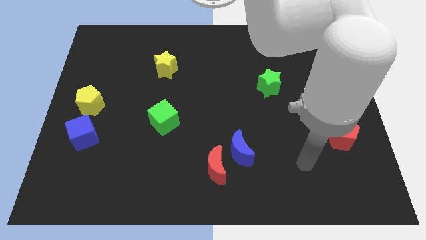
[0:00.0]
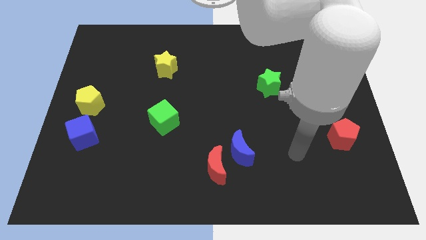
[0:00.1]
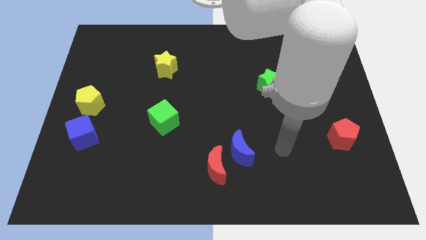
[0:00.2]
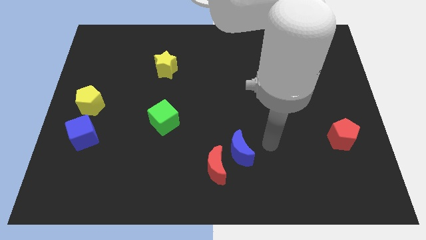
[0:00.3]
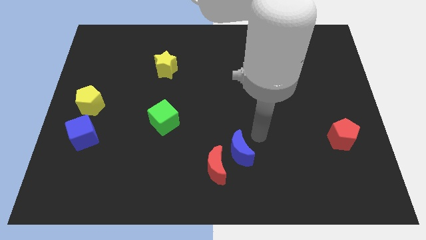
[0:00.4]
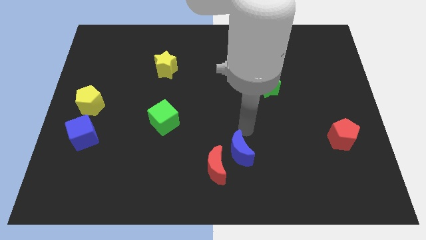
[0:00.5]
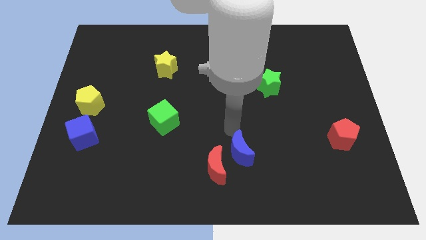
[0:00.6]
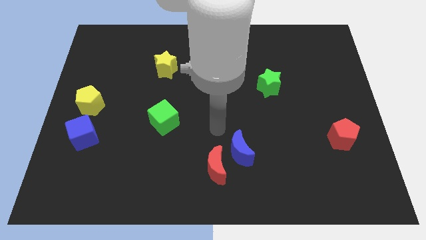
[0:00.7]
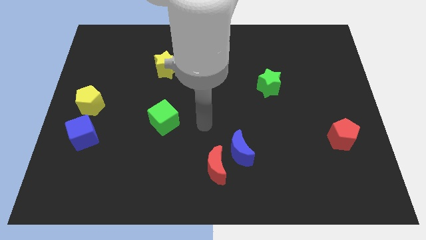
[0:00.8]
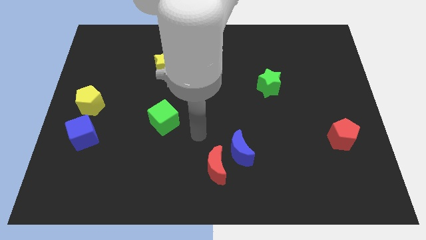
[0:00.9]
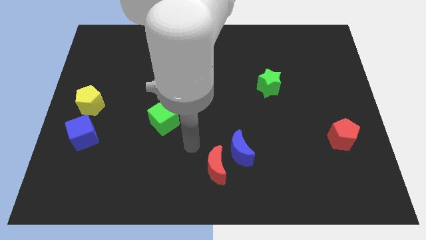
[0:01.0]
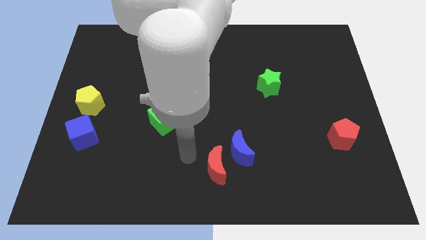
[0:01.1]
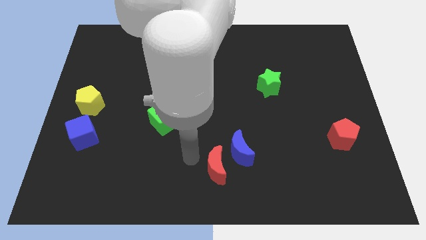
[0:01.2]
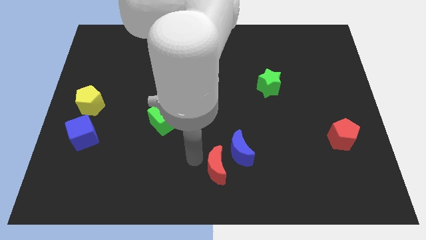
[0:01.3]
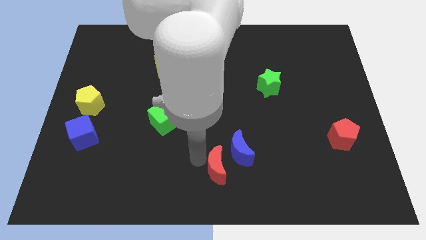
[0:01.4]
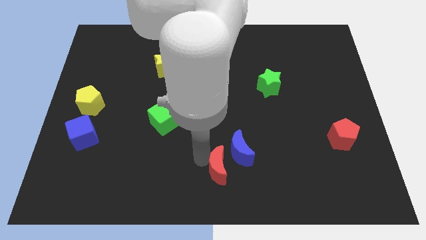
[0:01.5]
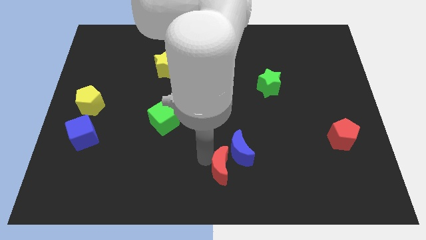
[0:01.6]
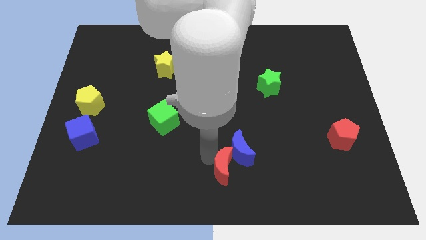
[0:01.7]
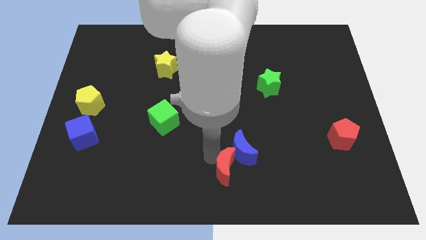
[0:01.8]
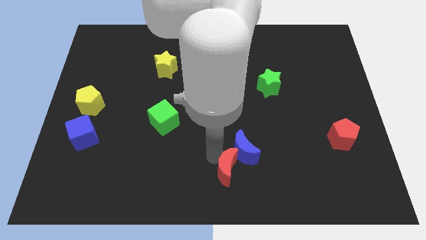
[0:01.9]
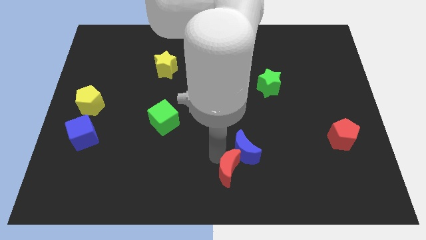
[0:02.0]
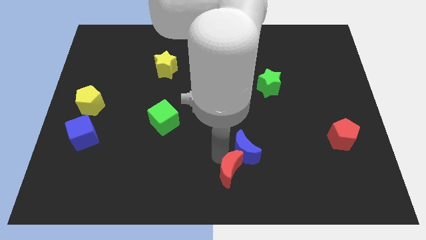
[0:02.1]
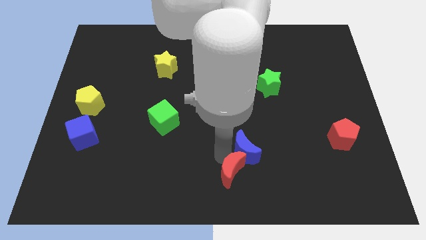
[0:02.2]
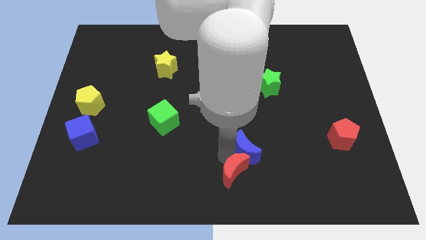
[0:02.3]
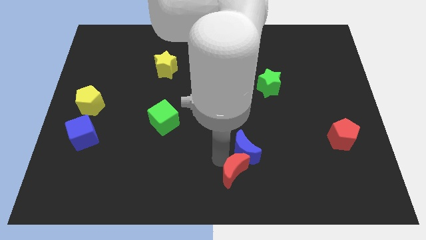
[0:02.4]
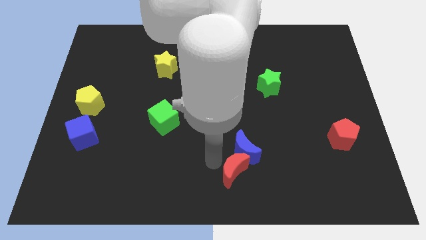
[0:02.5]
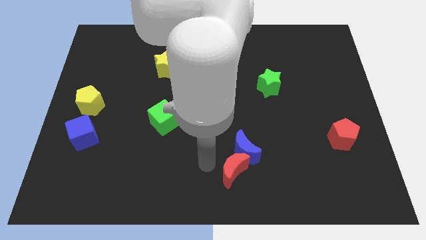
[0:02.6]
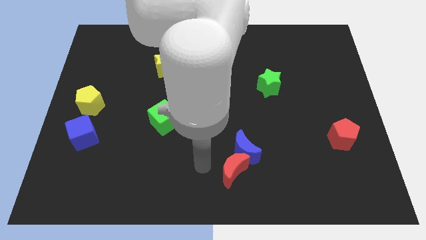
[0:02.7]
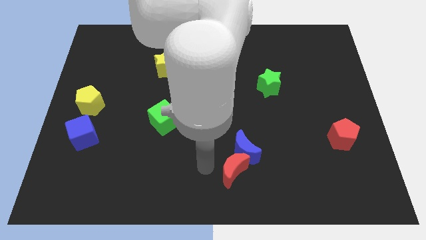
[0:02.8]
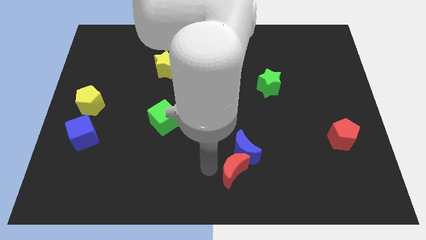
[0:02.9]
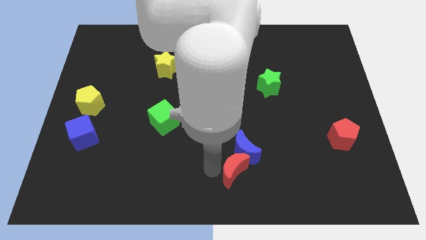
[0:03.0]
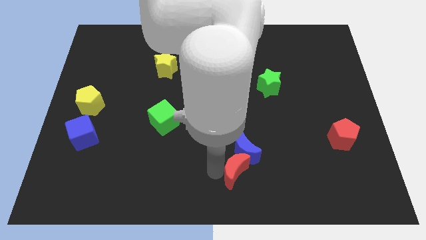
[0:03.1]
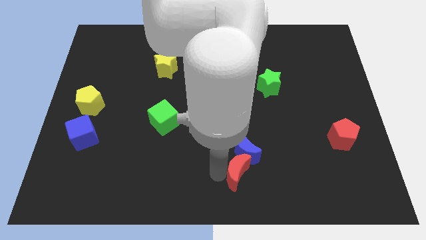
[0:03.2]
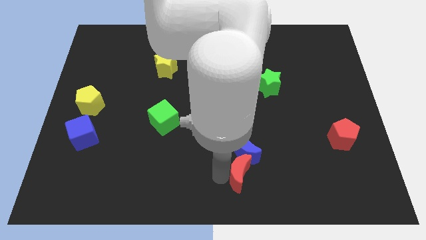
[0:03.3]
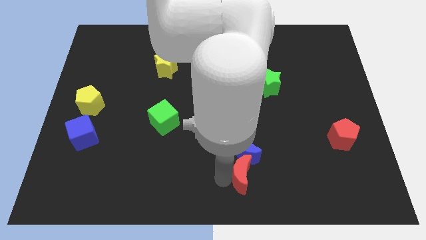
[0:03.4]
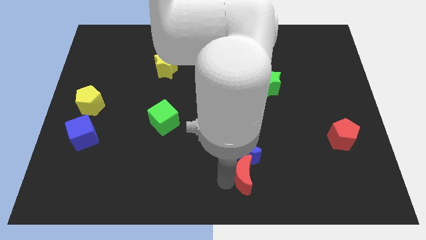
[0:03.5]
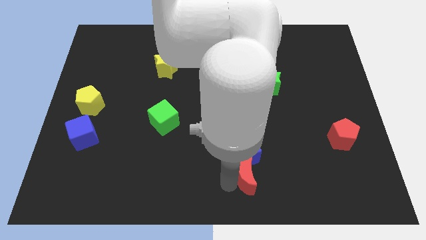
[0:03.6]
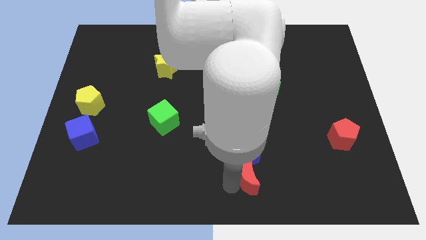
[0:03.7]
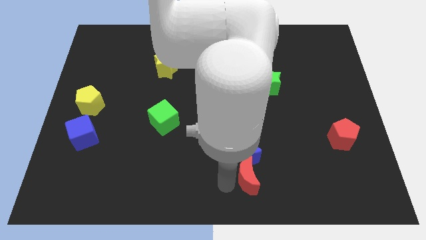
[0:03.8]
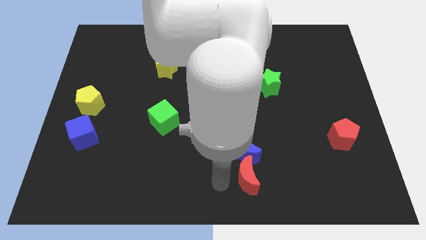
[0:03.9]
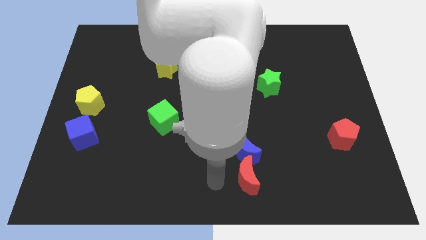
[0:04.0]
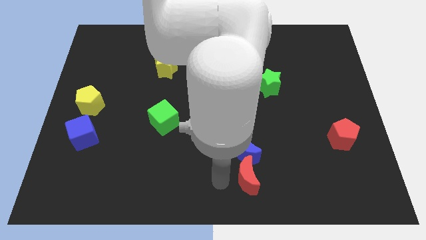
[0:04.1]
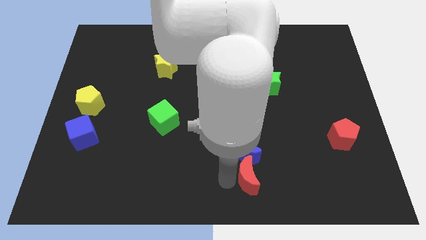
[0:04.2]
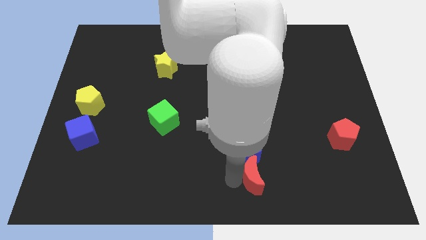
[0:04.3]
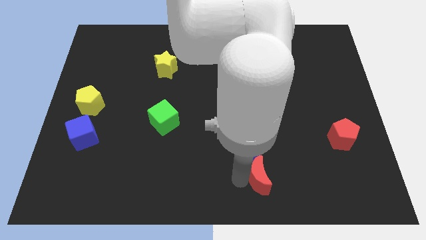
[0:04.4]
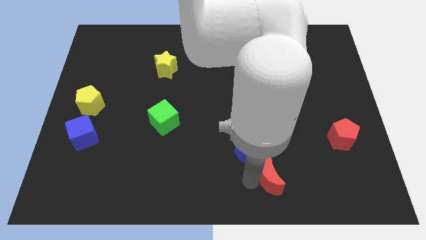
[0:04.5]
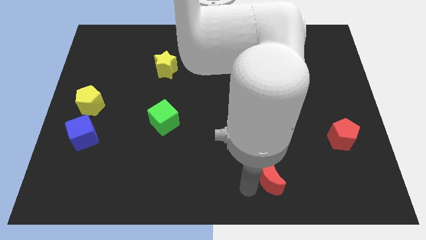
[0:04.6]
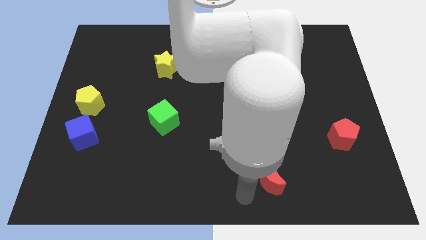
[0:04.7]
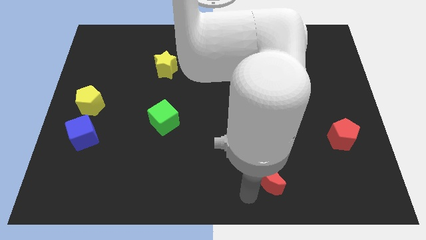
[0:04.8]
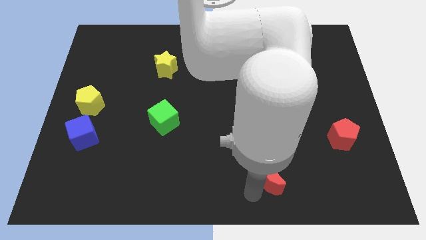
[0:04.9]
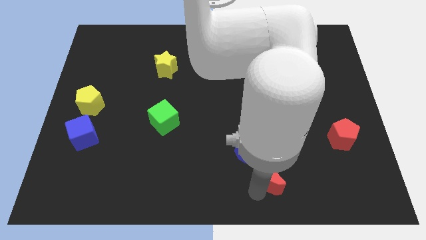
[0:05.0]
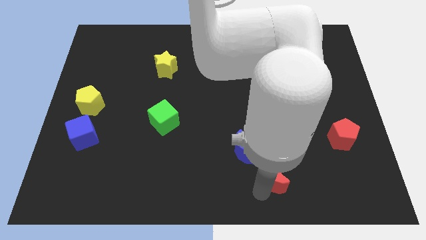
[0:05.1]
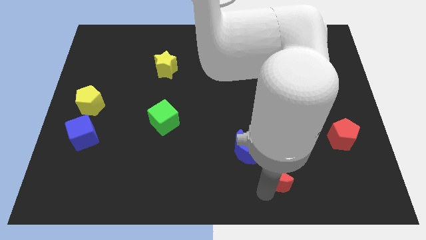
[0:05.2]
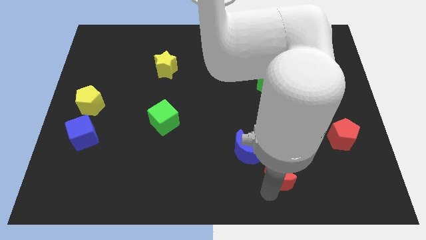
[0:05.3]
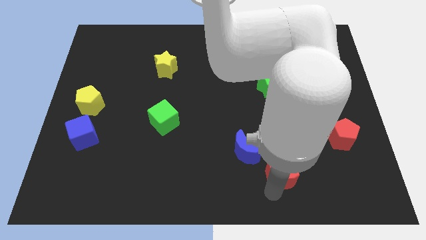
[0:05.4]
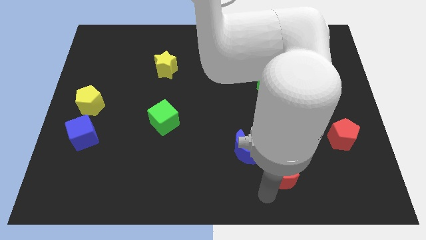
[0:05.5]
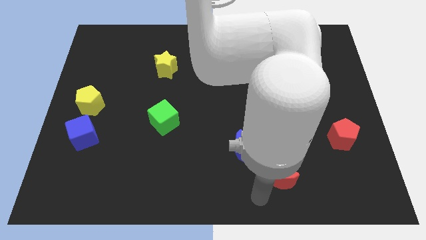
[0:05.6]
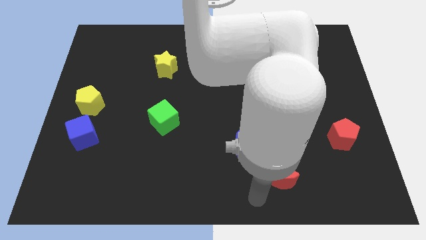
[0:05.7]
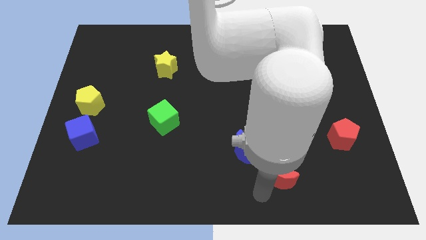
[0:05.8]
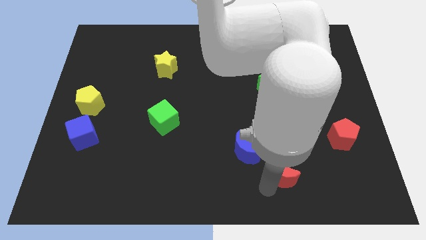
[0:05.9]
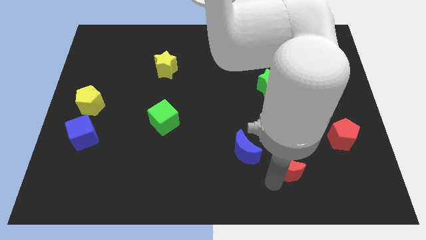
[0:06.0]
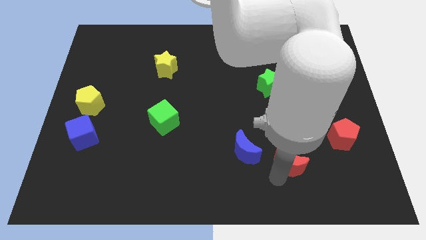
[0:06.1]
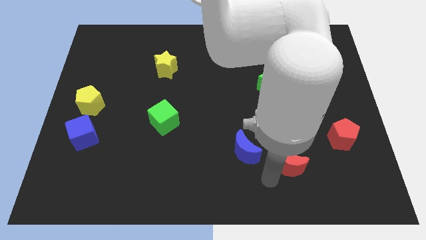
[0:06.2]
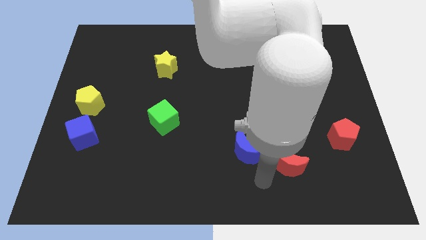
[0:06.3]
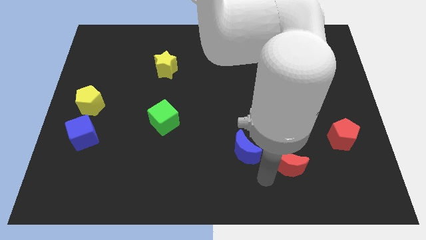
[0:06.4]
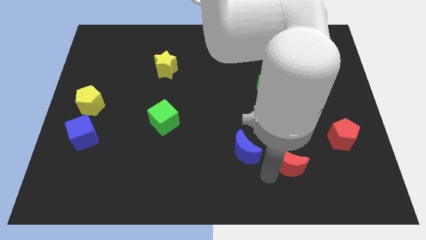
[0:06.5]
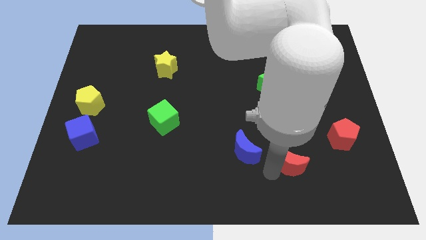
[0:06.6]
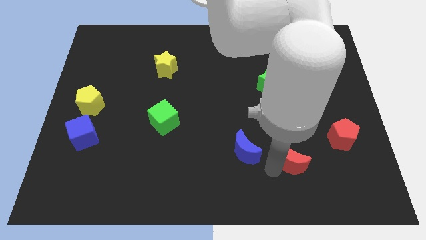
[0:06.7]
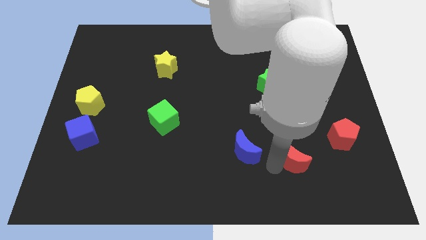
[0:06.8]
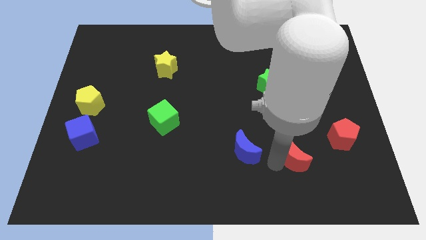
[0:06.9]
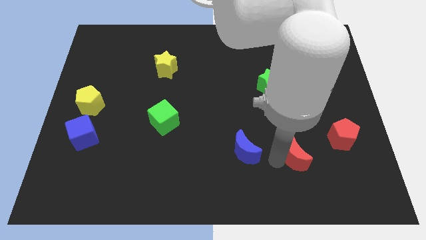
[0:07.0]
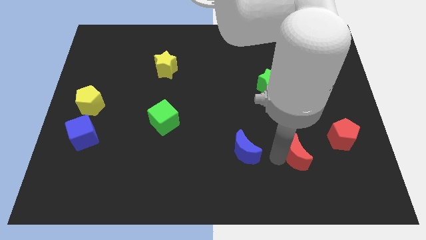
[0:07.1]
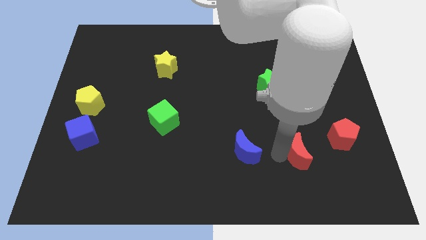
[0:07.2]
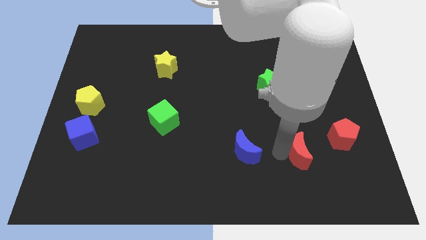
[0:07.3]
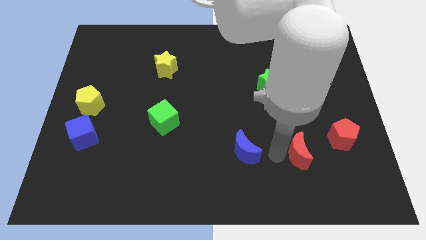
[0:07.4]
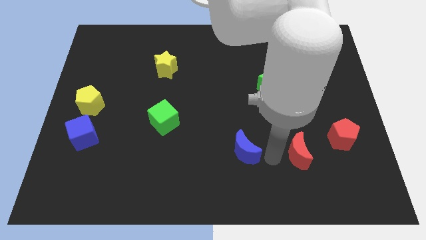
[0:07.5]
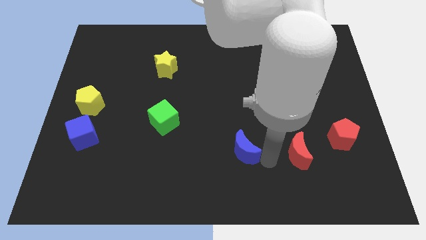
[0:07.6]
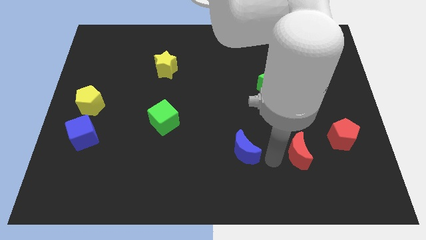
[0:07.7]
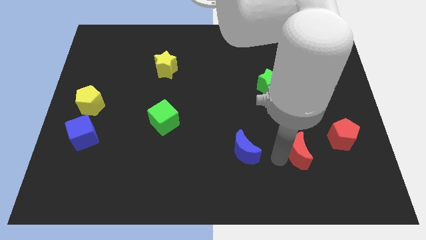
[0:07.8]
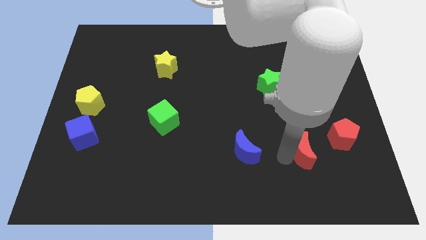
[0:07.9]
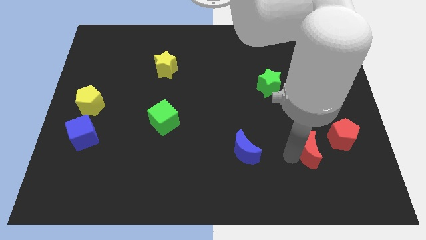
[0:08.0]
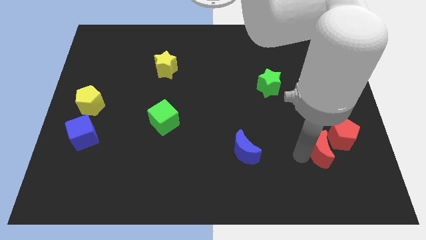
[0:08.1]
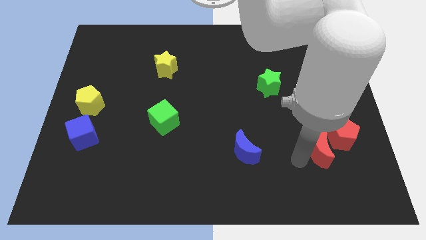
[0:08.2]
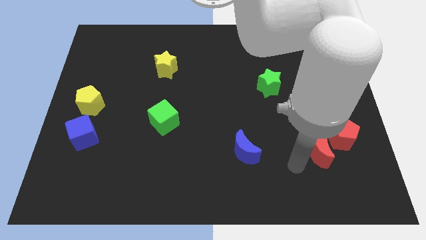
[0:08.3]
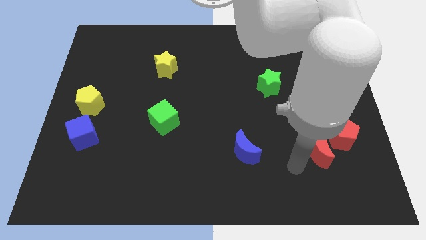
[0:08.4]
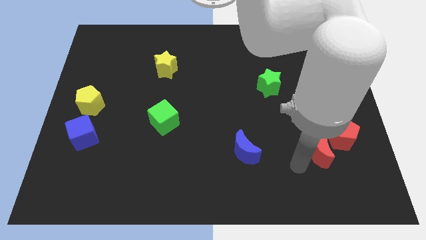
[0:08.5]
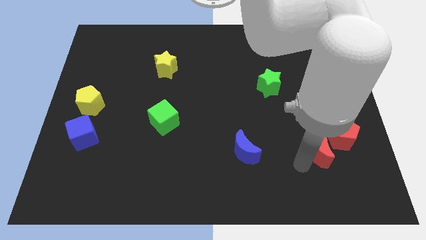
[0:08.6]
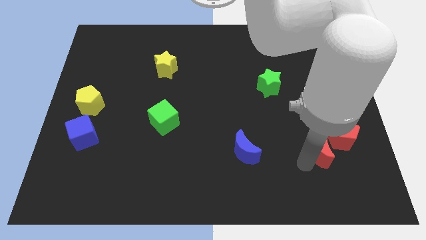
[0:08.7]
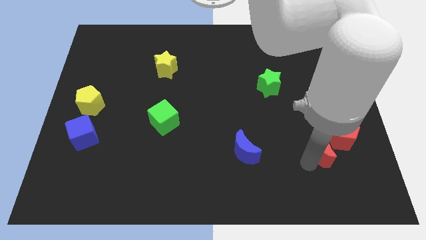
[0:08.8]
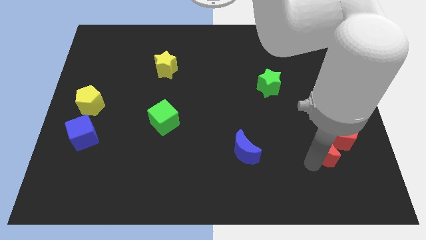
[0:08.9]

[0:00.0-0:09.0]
push the red moon next to the red pentagon
